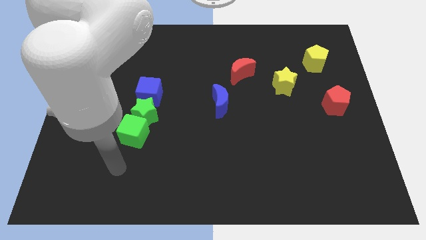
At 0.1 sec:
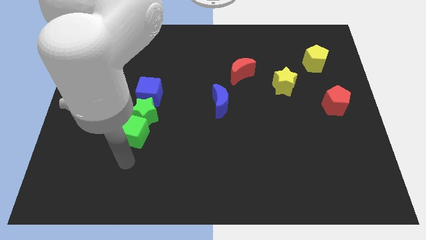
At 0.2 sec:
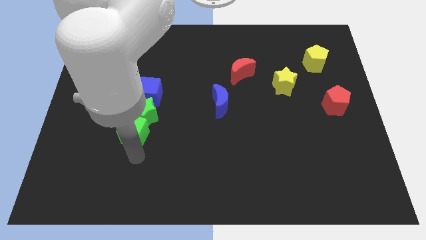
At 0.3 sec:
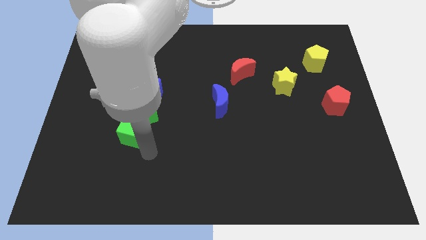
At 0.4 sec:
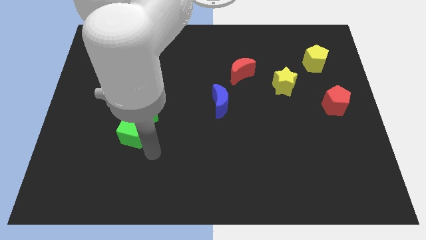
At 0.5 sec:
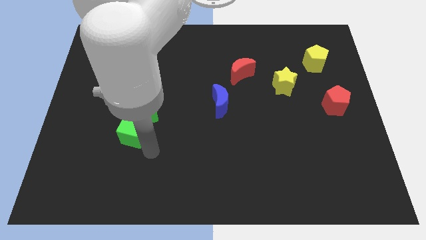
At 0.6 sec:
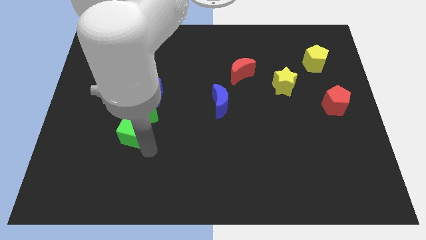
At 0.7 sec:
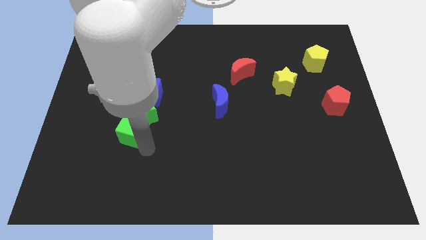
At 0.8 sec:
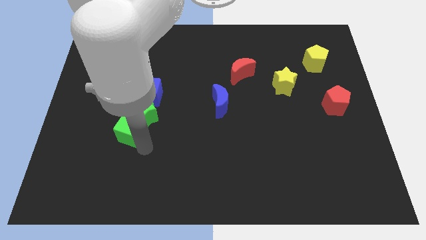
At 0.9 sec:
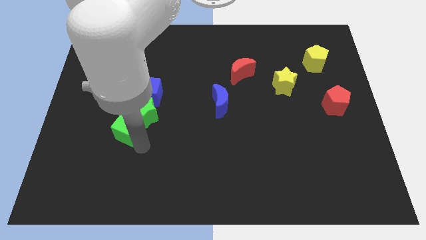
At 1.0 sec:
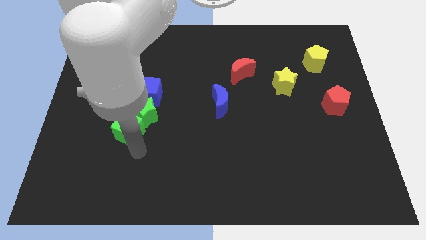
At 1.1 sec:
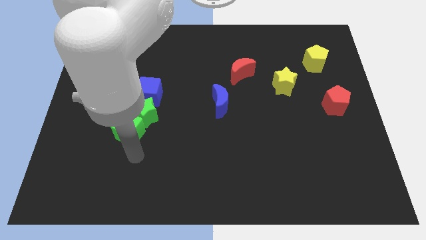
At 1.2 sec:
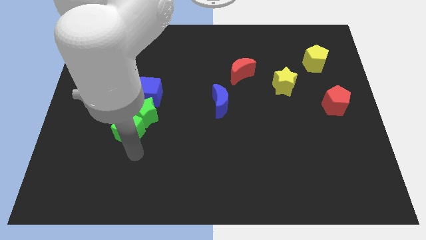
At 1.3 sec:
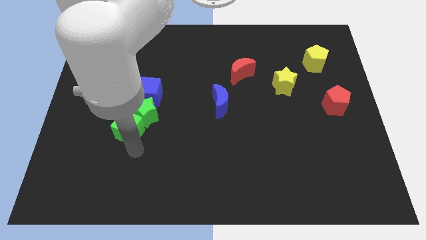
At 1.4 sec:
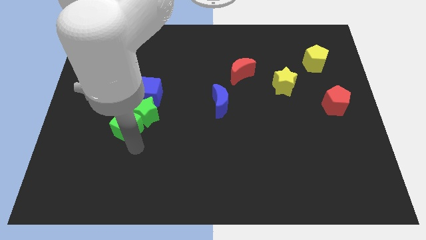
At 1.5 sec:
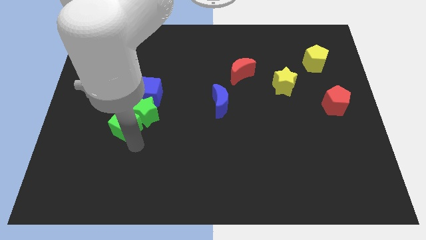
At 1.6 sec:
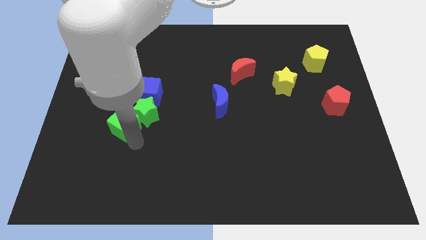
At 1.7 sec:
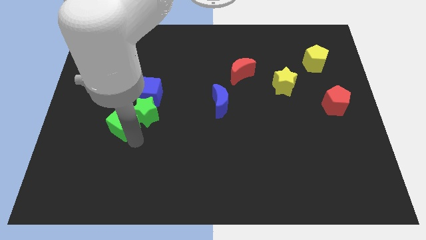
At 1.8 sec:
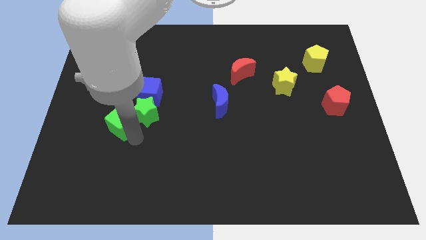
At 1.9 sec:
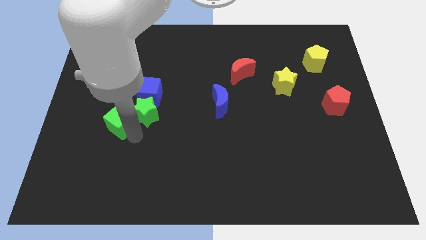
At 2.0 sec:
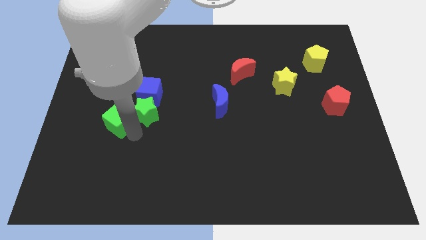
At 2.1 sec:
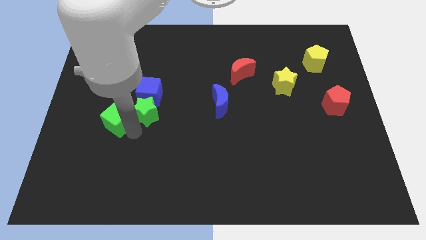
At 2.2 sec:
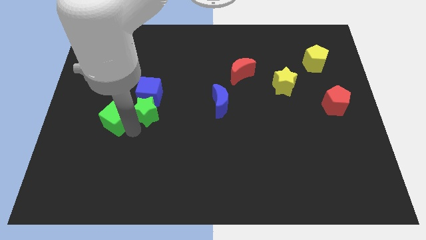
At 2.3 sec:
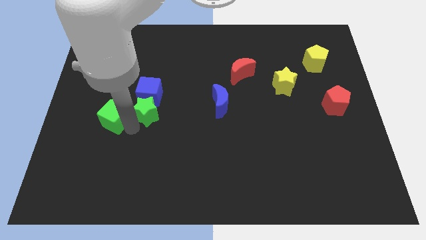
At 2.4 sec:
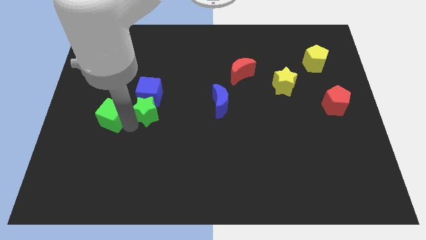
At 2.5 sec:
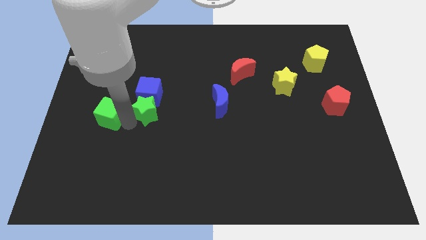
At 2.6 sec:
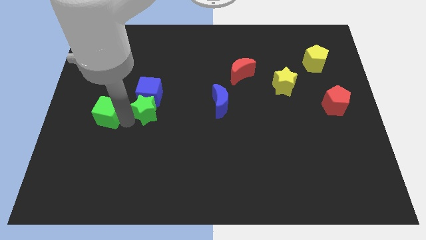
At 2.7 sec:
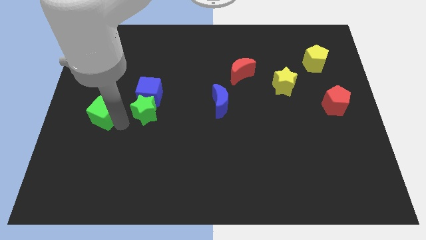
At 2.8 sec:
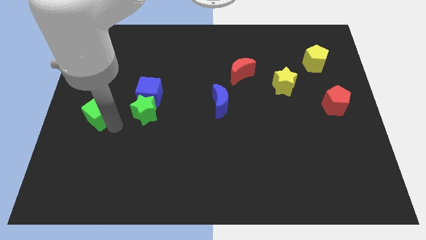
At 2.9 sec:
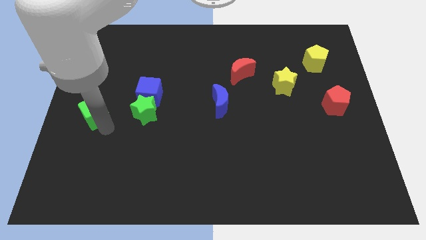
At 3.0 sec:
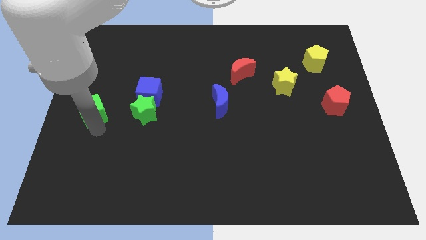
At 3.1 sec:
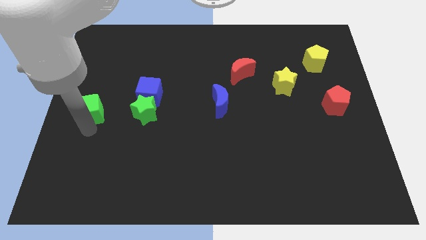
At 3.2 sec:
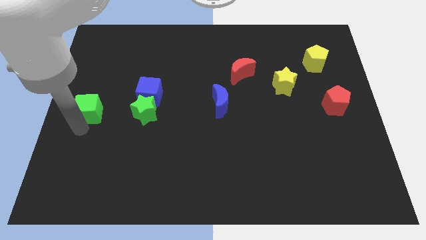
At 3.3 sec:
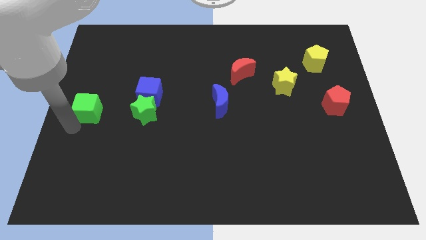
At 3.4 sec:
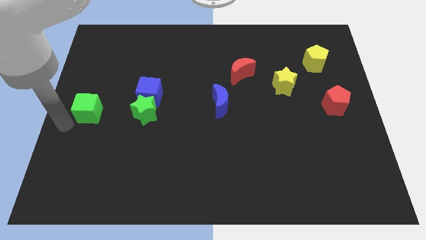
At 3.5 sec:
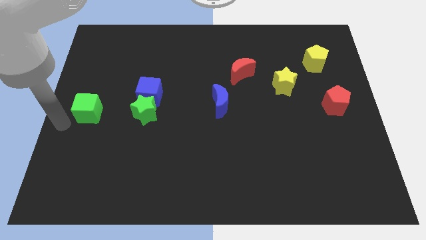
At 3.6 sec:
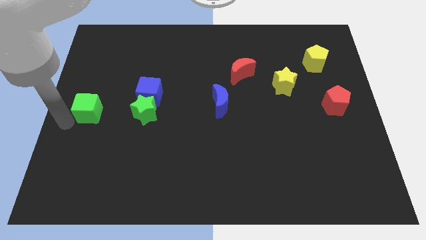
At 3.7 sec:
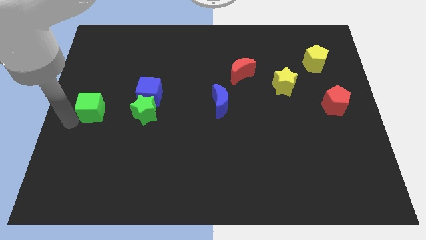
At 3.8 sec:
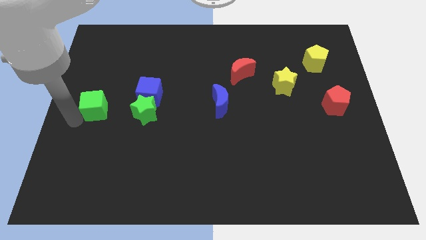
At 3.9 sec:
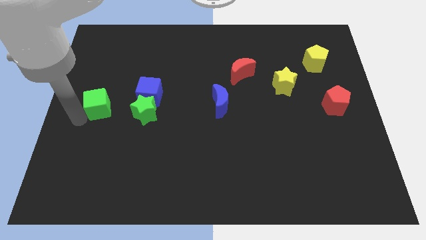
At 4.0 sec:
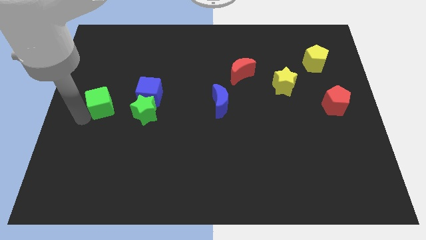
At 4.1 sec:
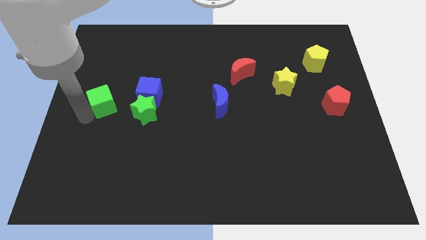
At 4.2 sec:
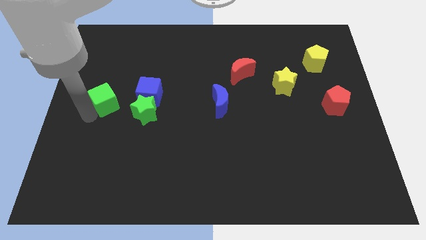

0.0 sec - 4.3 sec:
slide the green cube to the top left side of the green star

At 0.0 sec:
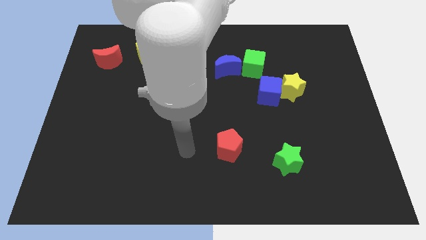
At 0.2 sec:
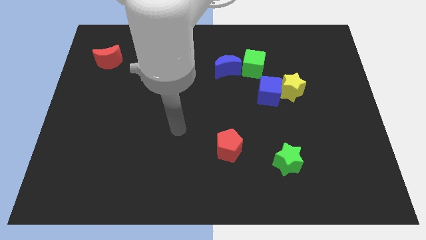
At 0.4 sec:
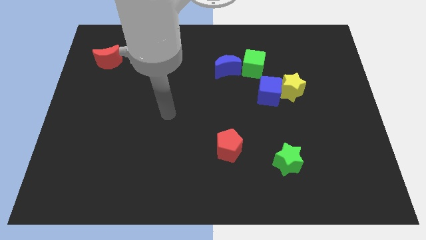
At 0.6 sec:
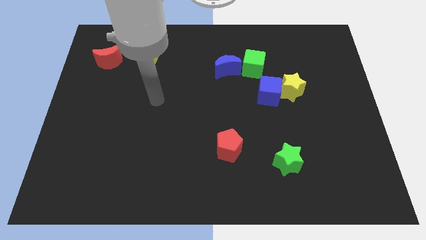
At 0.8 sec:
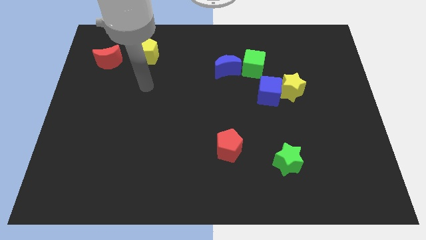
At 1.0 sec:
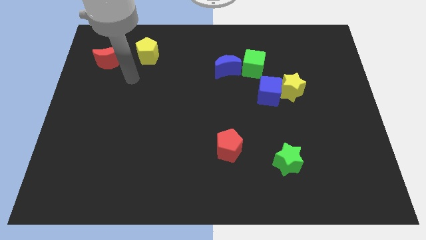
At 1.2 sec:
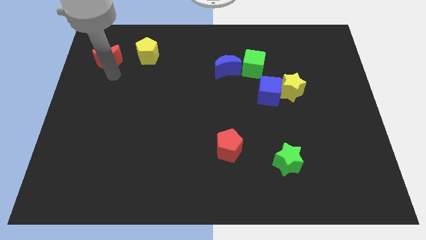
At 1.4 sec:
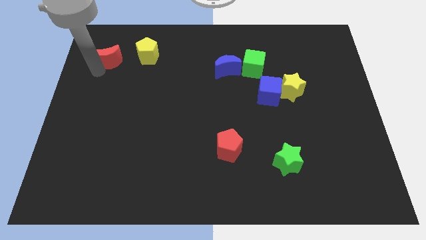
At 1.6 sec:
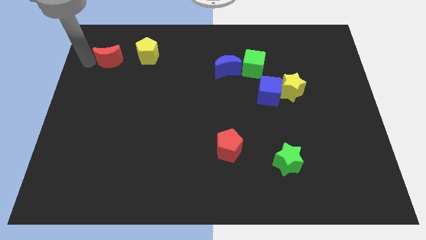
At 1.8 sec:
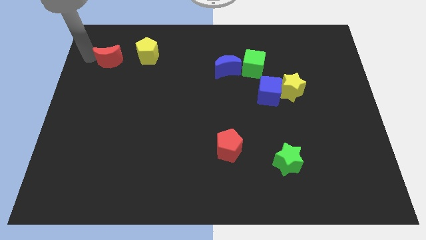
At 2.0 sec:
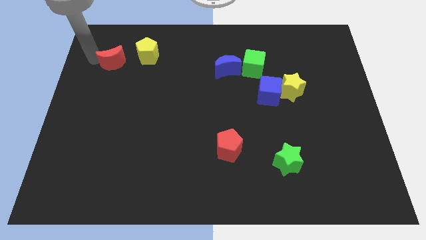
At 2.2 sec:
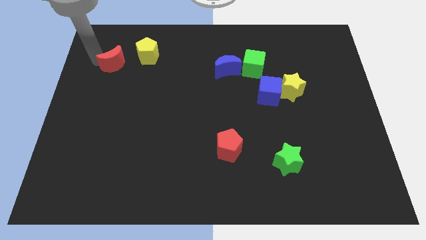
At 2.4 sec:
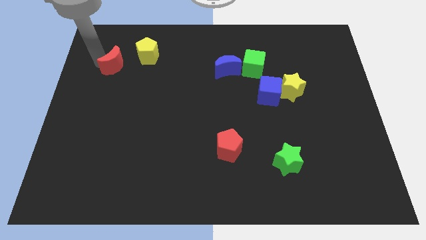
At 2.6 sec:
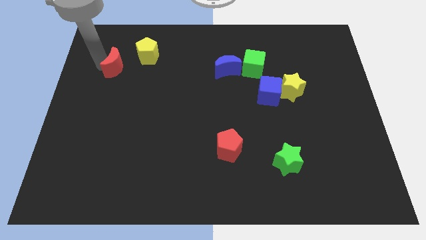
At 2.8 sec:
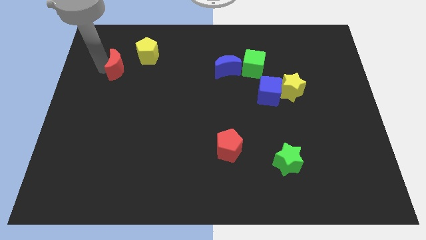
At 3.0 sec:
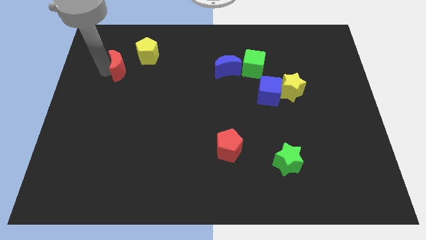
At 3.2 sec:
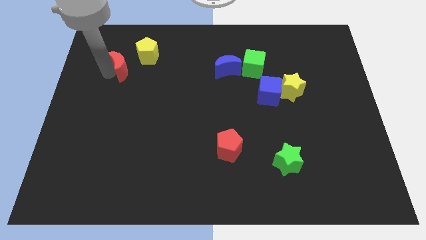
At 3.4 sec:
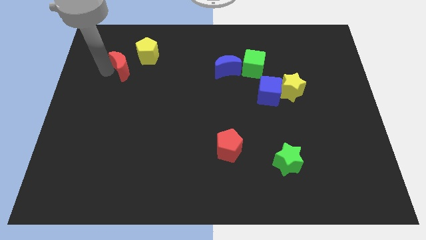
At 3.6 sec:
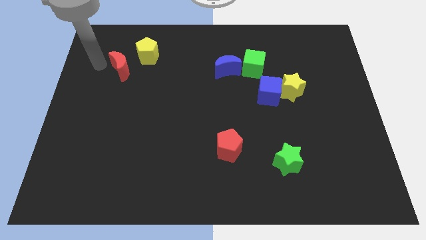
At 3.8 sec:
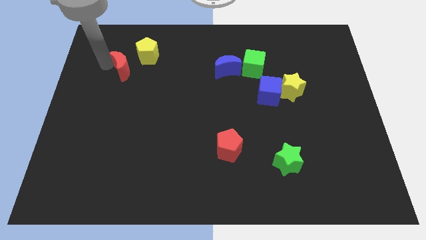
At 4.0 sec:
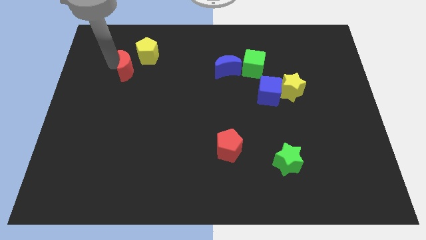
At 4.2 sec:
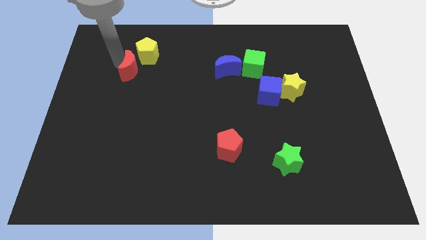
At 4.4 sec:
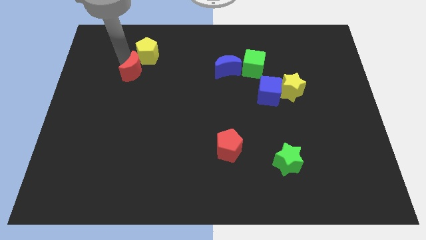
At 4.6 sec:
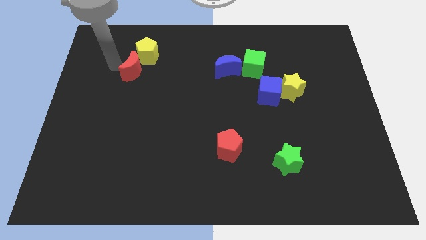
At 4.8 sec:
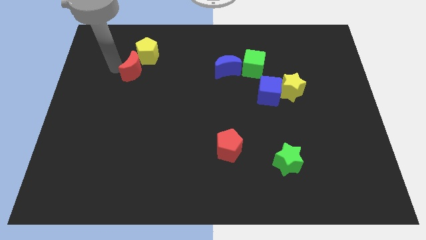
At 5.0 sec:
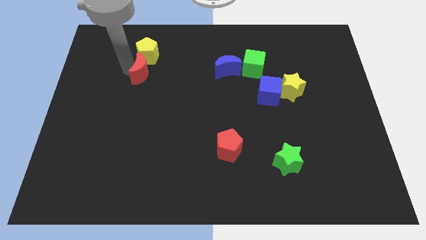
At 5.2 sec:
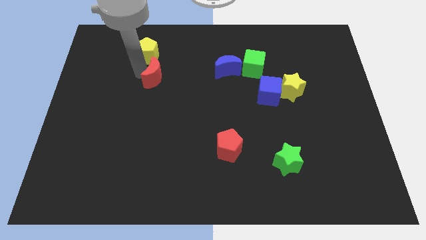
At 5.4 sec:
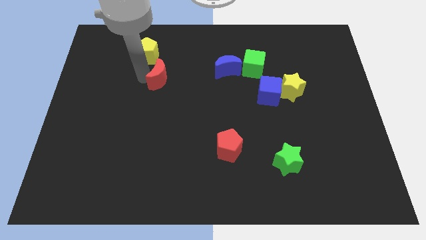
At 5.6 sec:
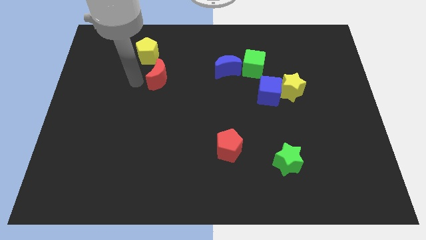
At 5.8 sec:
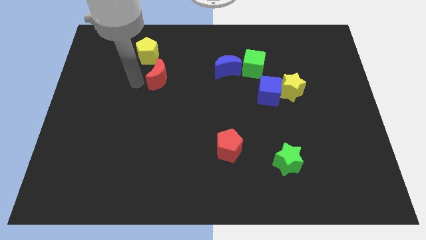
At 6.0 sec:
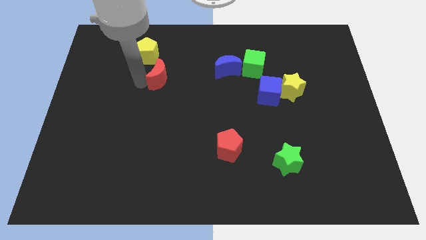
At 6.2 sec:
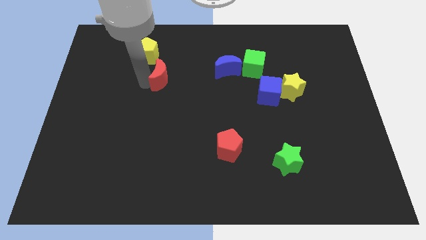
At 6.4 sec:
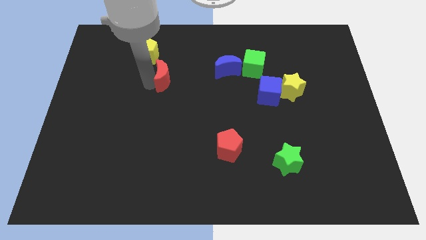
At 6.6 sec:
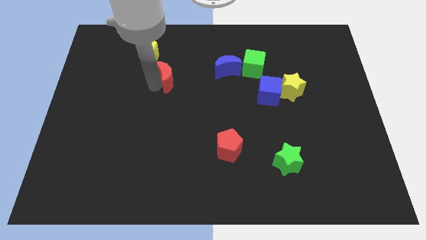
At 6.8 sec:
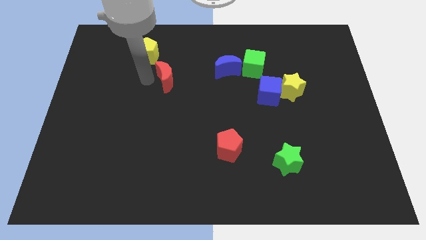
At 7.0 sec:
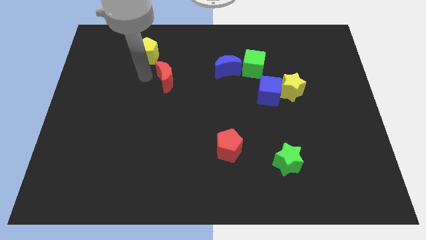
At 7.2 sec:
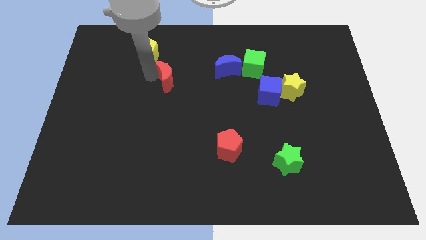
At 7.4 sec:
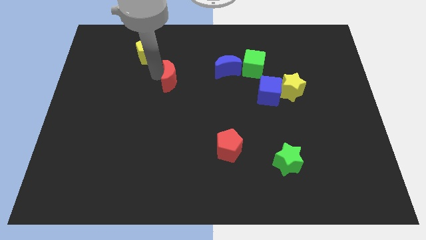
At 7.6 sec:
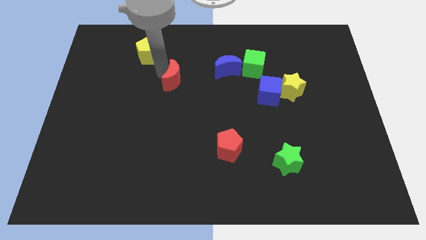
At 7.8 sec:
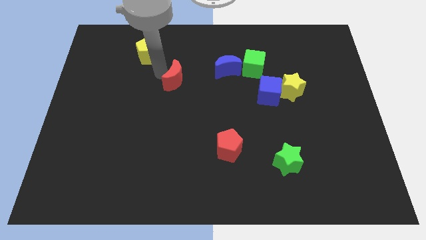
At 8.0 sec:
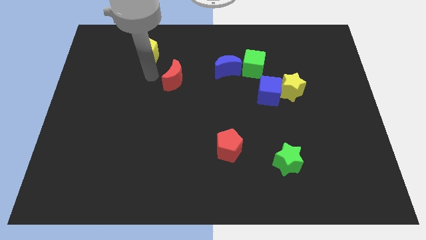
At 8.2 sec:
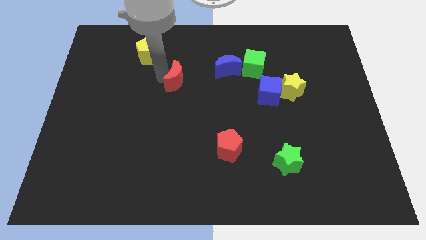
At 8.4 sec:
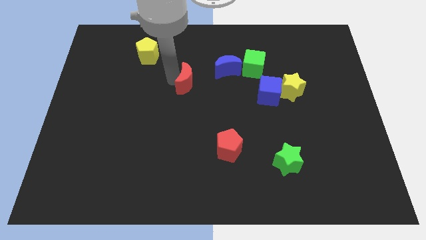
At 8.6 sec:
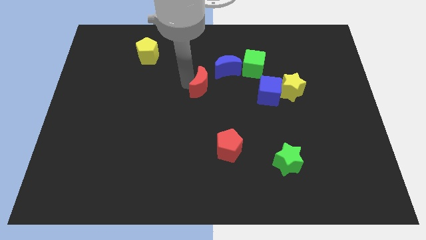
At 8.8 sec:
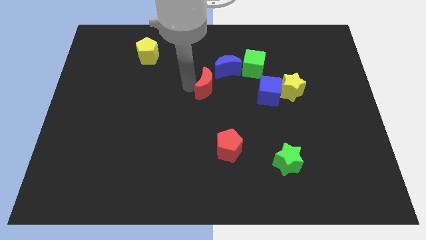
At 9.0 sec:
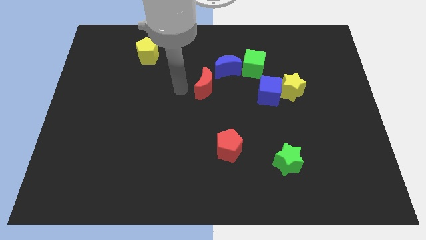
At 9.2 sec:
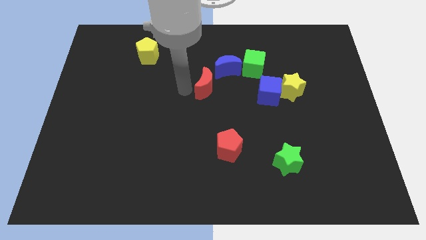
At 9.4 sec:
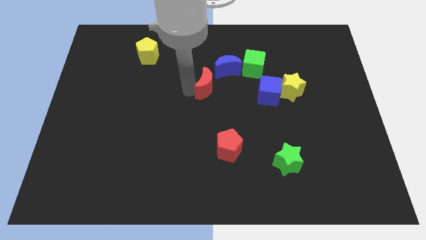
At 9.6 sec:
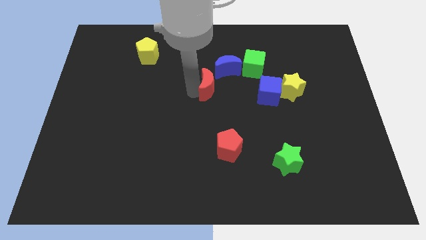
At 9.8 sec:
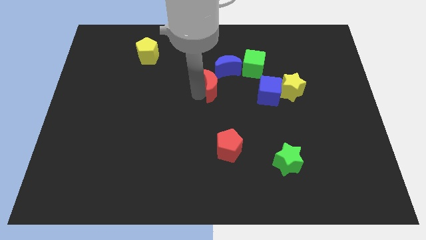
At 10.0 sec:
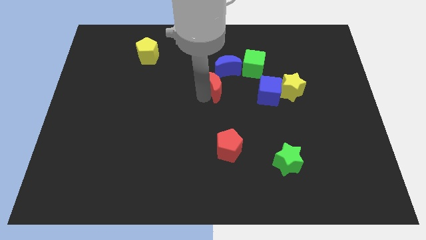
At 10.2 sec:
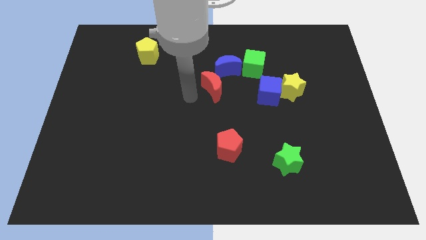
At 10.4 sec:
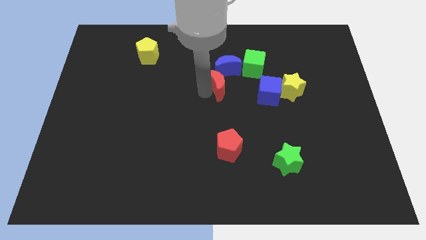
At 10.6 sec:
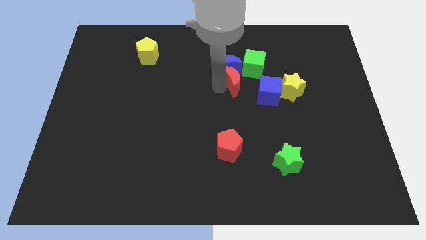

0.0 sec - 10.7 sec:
move the red moon to the top left of the blue cube
